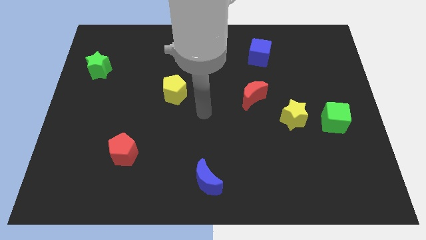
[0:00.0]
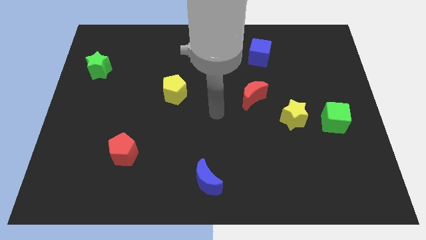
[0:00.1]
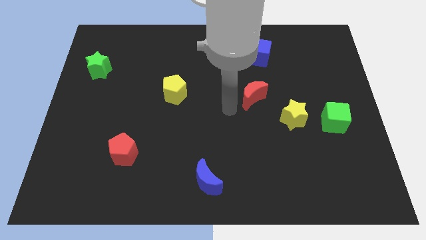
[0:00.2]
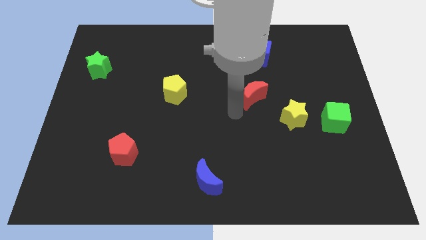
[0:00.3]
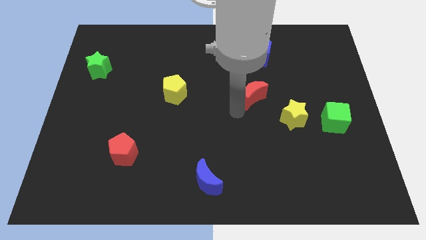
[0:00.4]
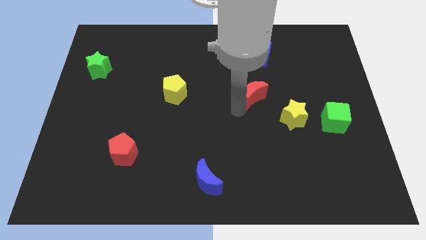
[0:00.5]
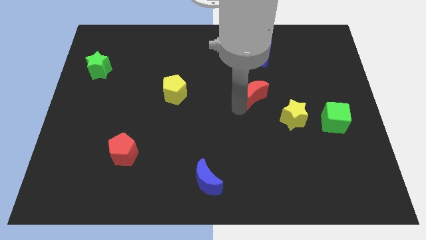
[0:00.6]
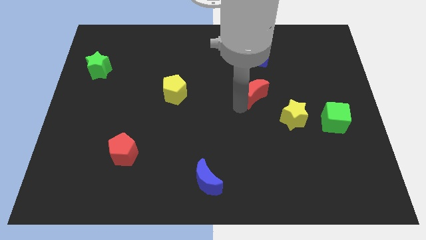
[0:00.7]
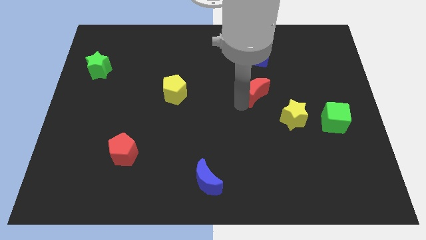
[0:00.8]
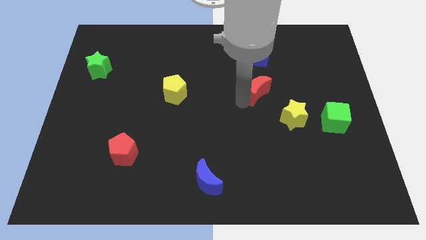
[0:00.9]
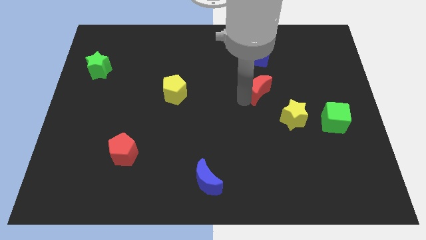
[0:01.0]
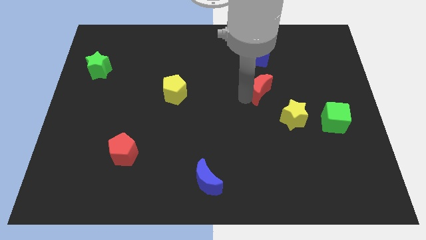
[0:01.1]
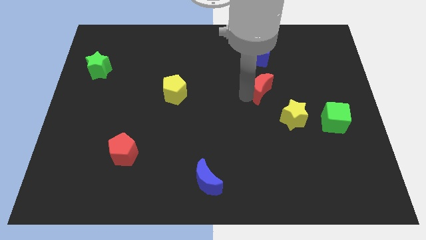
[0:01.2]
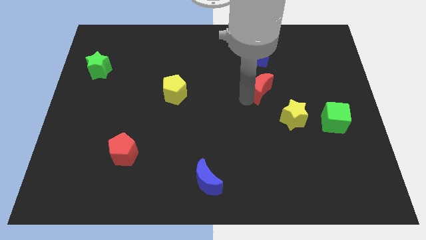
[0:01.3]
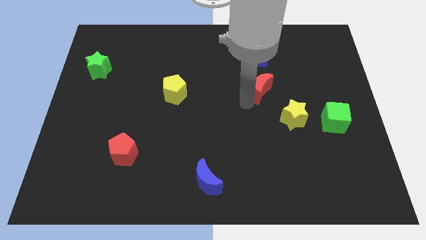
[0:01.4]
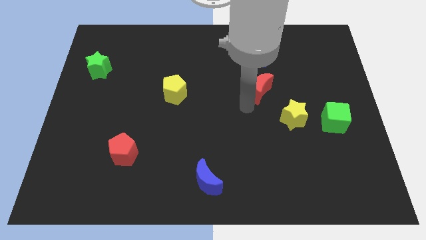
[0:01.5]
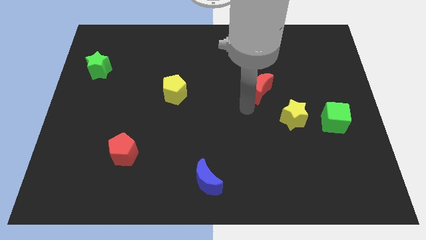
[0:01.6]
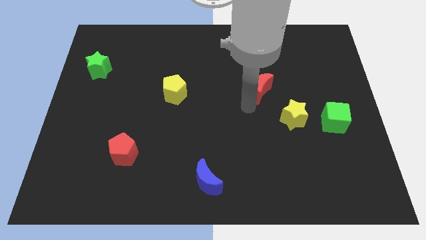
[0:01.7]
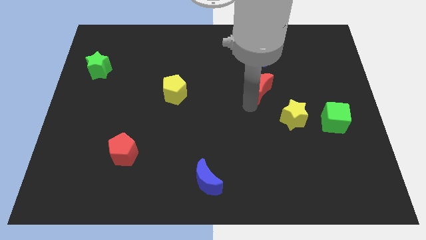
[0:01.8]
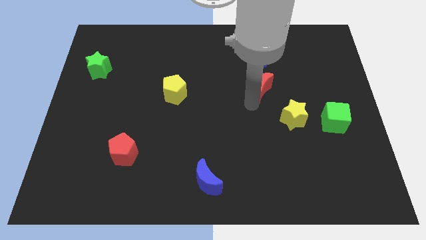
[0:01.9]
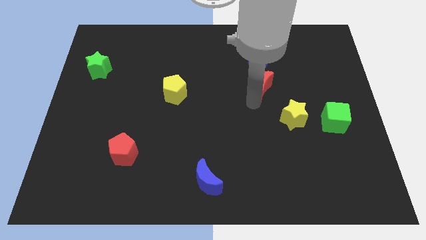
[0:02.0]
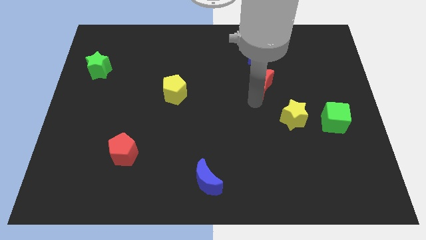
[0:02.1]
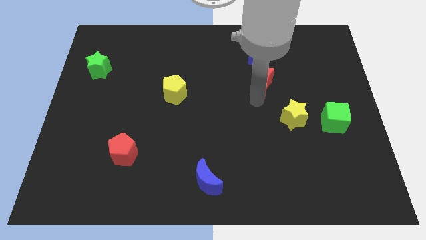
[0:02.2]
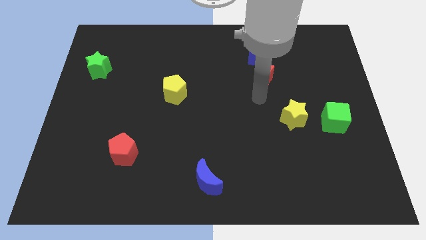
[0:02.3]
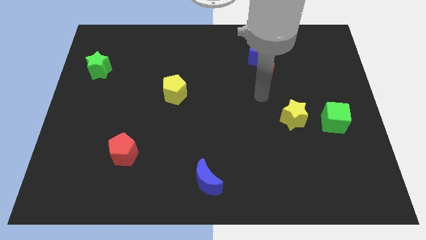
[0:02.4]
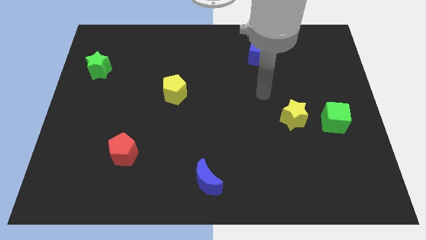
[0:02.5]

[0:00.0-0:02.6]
slide the red moon a little diagonally upwards and to the right

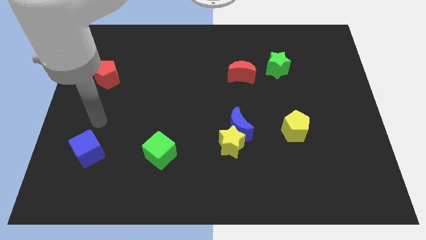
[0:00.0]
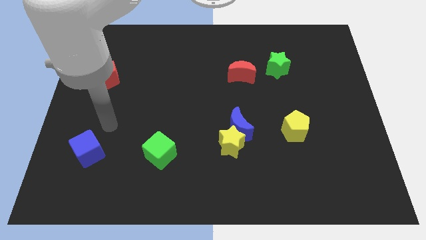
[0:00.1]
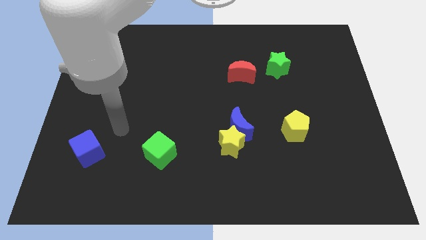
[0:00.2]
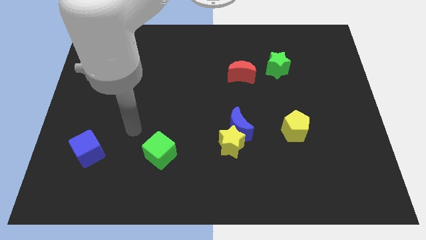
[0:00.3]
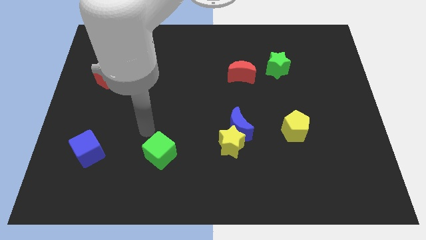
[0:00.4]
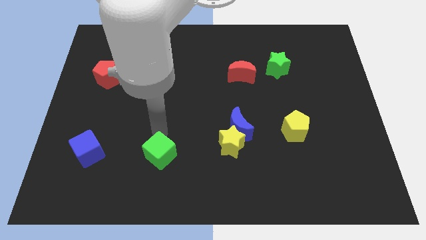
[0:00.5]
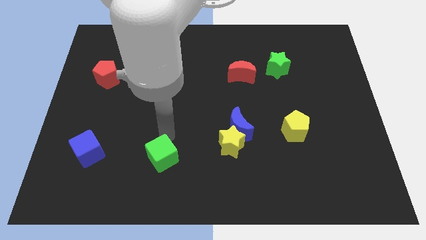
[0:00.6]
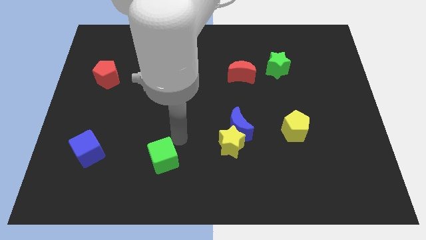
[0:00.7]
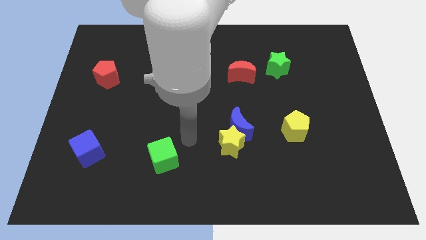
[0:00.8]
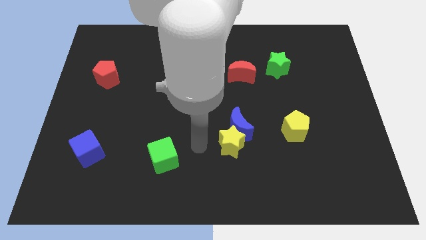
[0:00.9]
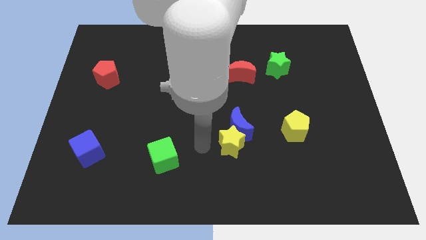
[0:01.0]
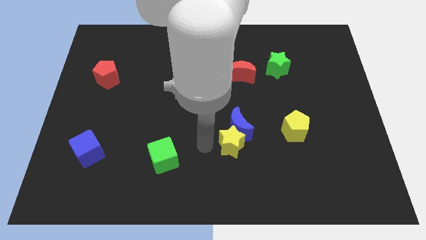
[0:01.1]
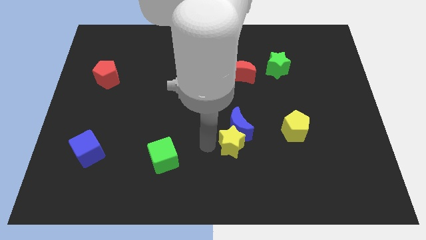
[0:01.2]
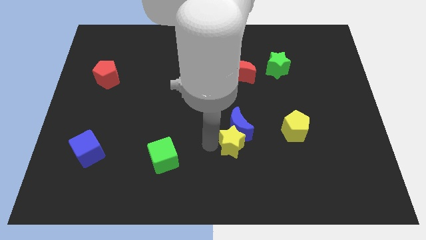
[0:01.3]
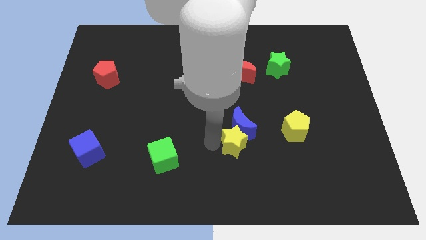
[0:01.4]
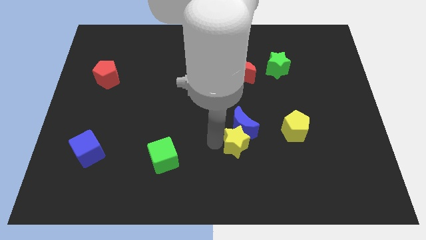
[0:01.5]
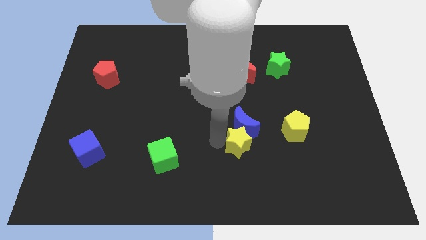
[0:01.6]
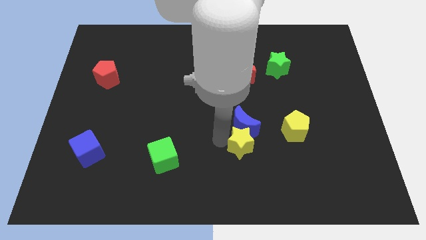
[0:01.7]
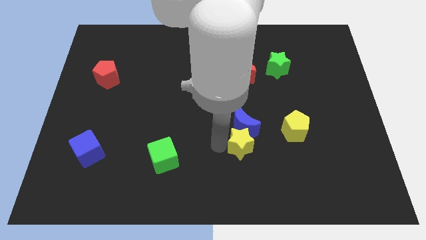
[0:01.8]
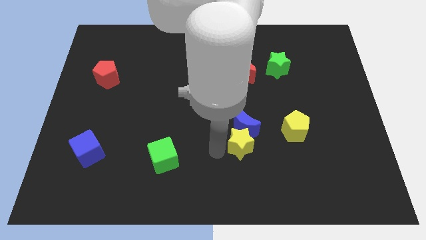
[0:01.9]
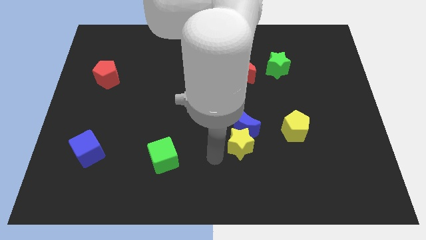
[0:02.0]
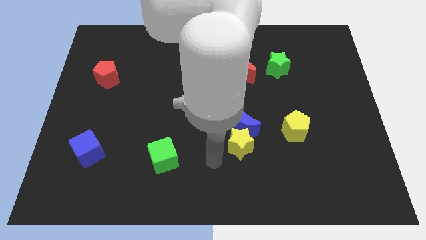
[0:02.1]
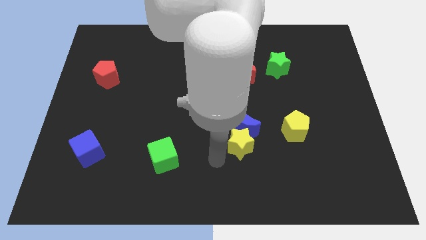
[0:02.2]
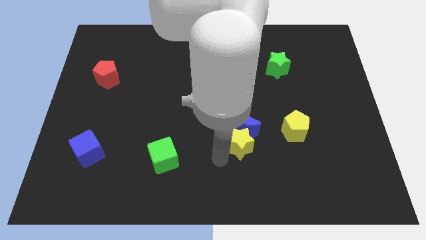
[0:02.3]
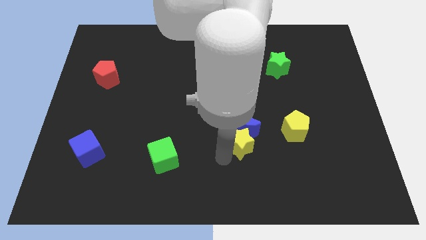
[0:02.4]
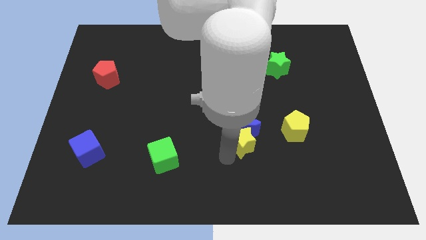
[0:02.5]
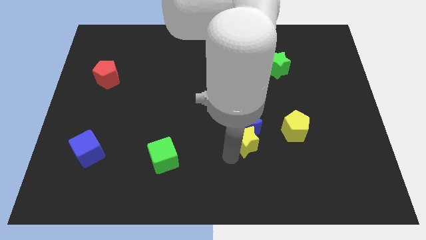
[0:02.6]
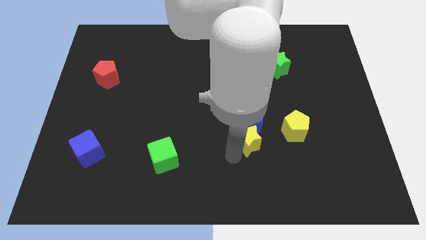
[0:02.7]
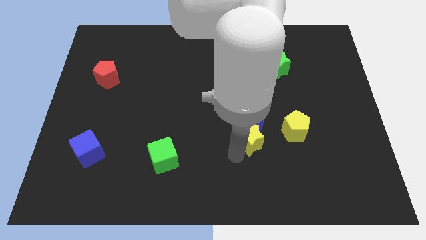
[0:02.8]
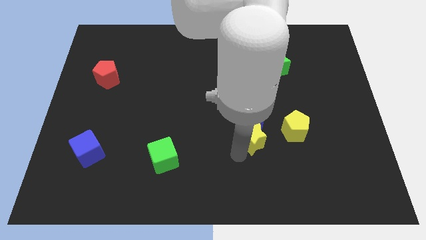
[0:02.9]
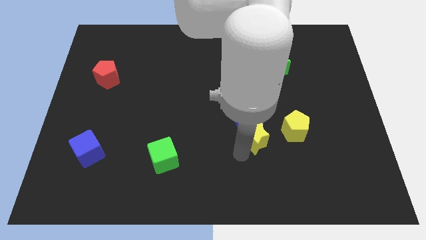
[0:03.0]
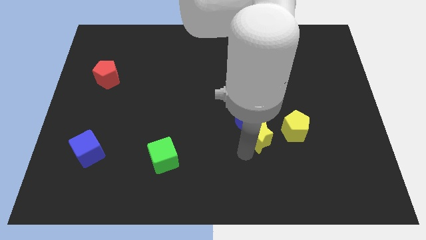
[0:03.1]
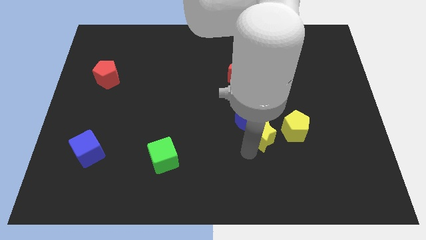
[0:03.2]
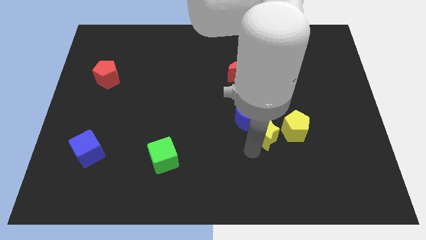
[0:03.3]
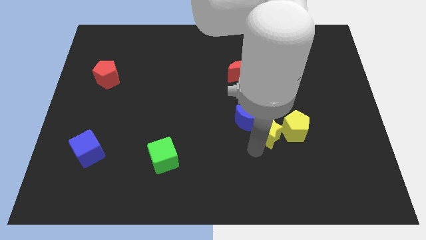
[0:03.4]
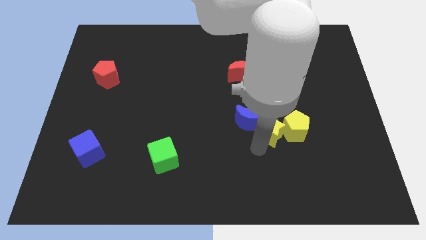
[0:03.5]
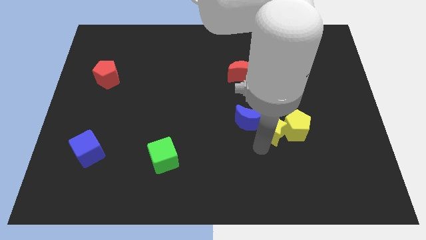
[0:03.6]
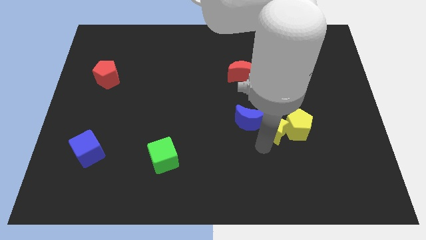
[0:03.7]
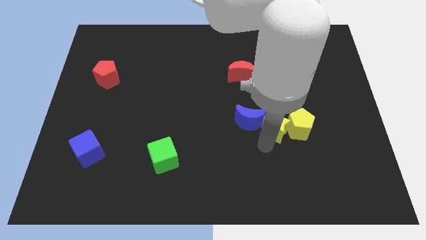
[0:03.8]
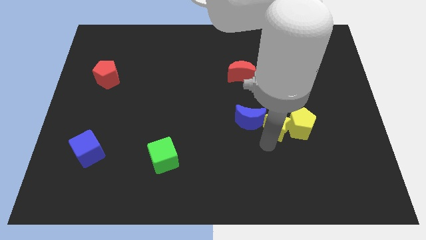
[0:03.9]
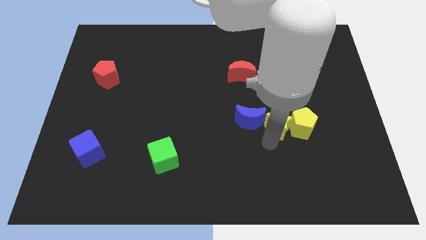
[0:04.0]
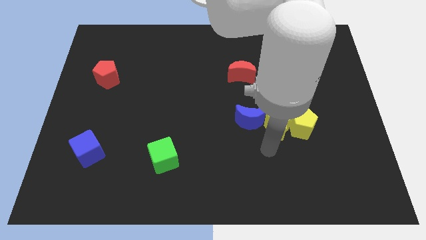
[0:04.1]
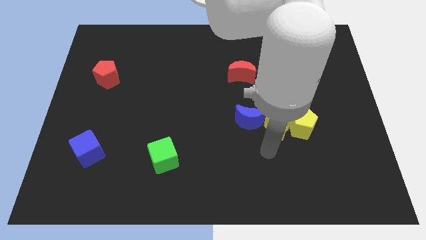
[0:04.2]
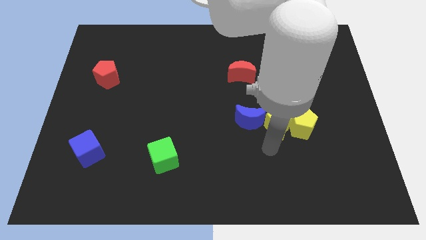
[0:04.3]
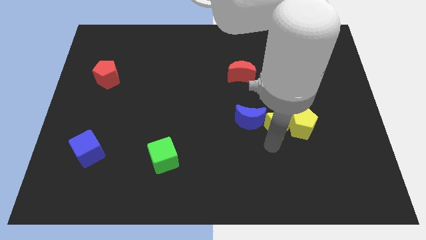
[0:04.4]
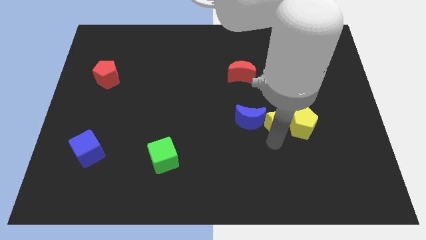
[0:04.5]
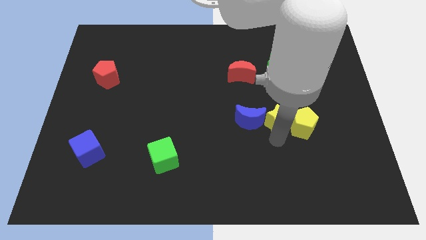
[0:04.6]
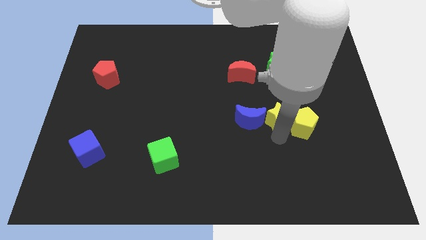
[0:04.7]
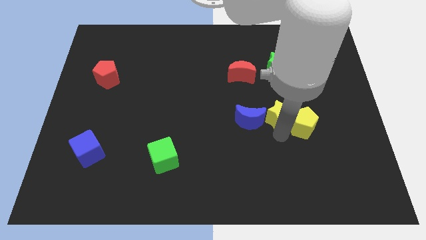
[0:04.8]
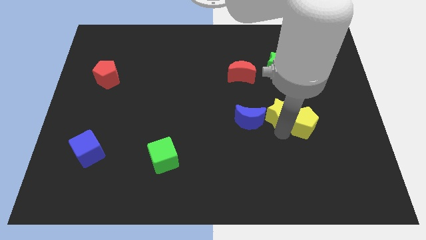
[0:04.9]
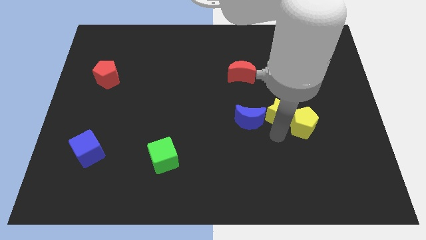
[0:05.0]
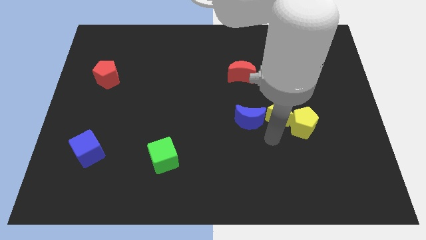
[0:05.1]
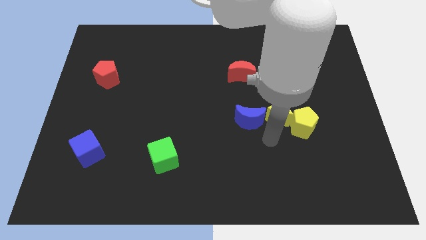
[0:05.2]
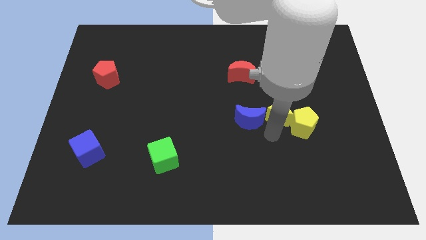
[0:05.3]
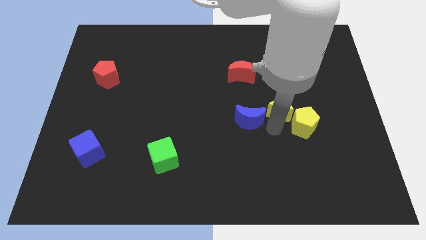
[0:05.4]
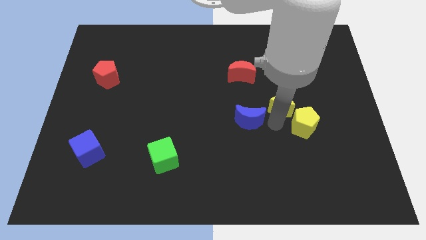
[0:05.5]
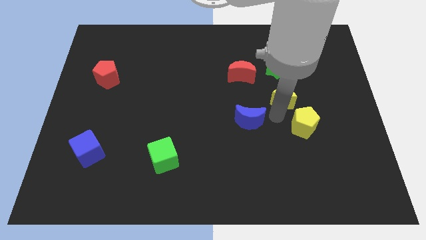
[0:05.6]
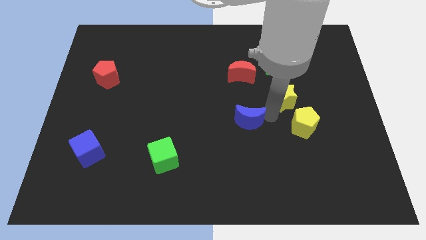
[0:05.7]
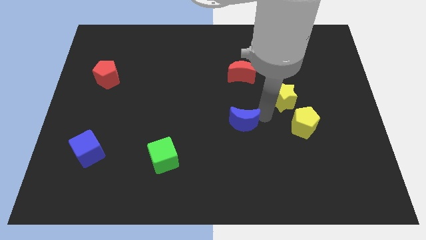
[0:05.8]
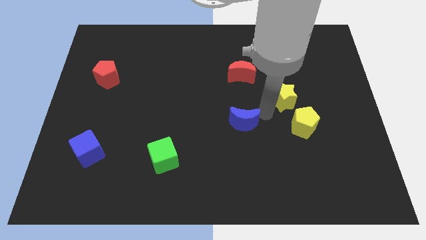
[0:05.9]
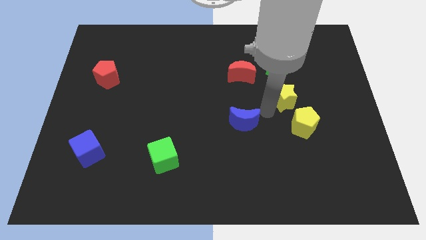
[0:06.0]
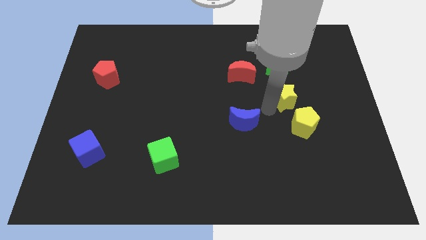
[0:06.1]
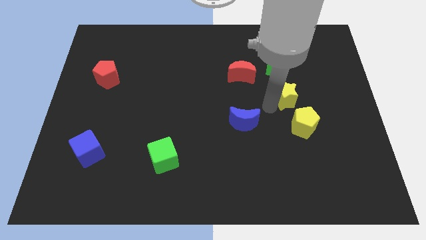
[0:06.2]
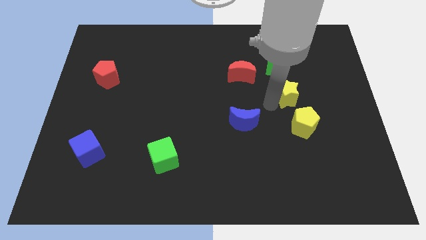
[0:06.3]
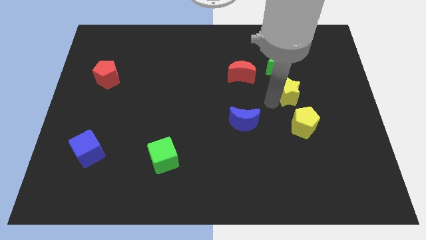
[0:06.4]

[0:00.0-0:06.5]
push the yellow star up and then to the right
